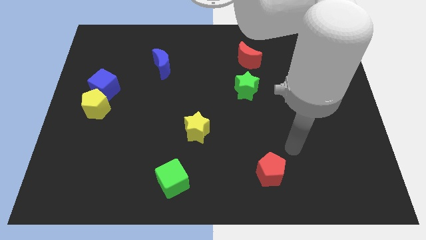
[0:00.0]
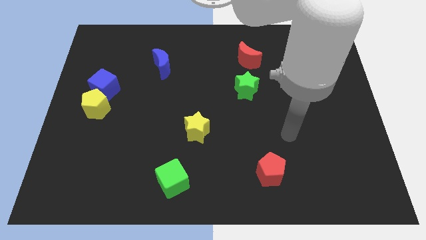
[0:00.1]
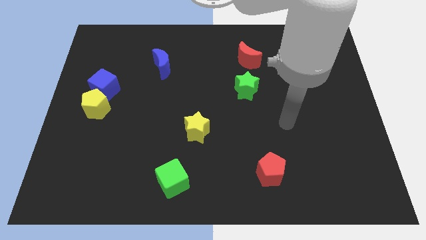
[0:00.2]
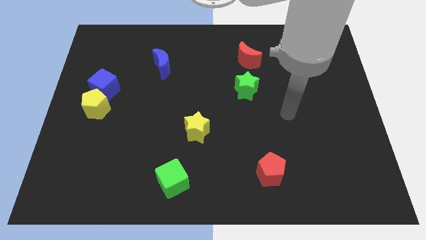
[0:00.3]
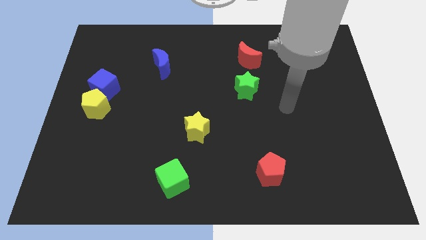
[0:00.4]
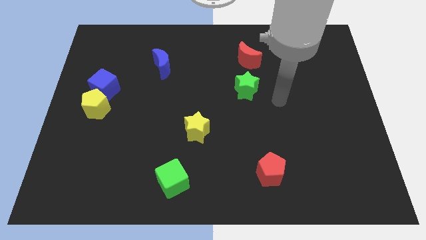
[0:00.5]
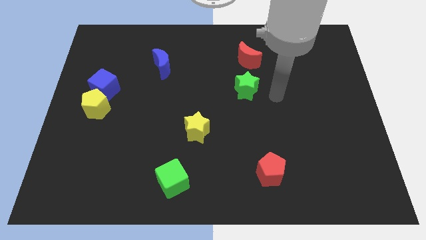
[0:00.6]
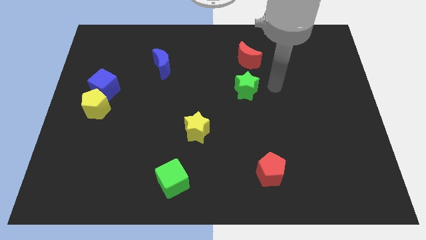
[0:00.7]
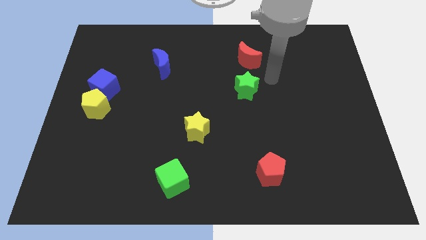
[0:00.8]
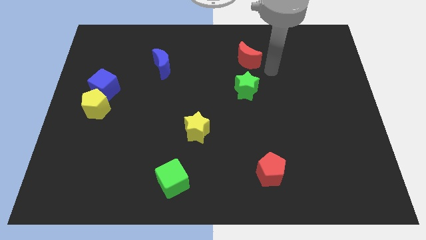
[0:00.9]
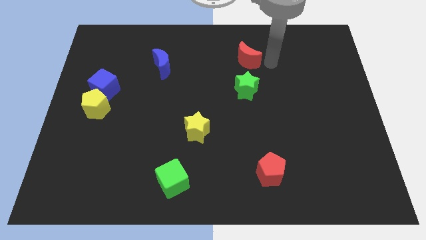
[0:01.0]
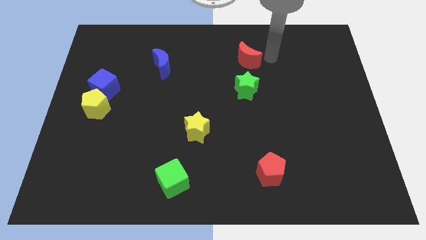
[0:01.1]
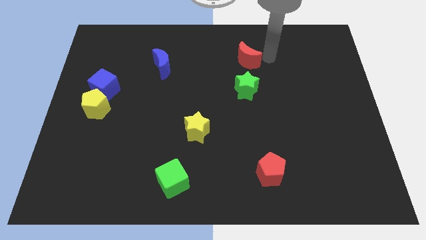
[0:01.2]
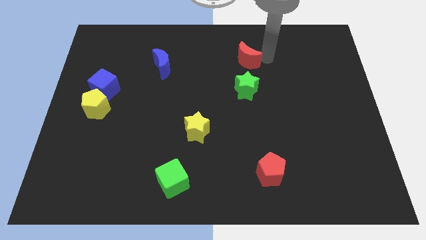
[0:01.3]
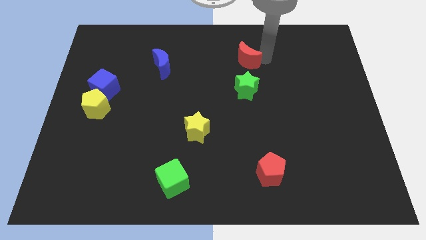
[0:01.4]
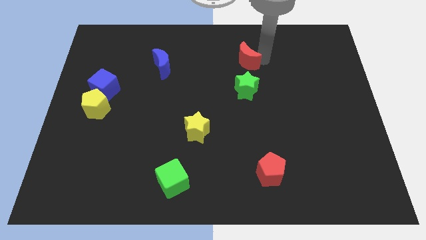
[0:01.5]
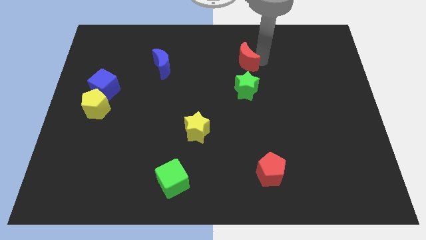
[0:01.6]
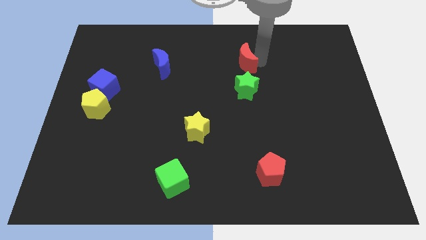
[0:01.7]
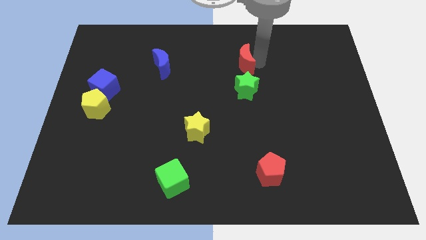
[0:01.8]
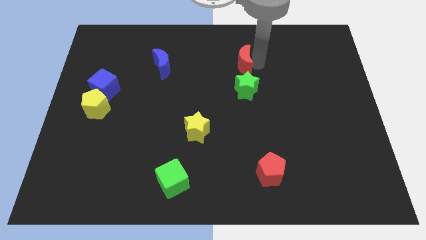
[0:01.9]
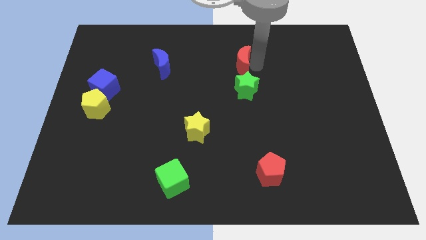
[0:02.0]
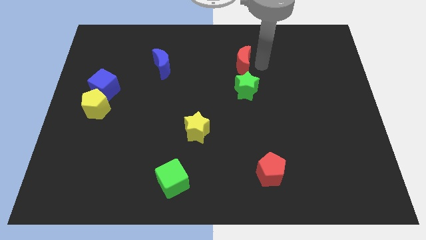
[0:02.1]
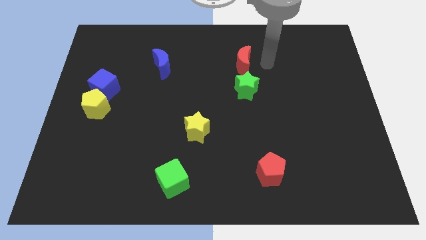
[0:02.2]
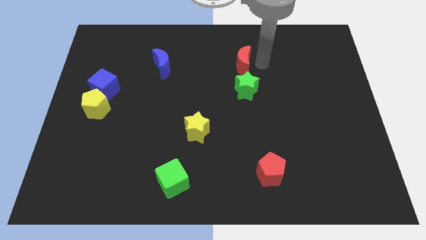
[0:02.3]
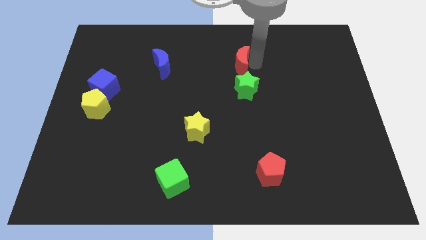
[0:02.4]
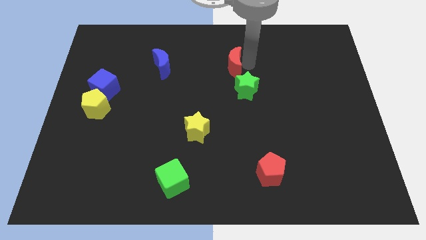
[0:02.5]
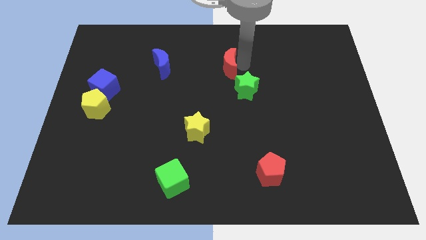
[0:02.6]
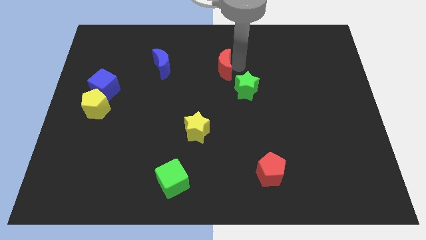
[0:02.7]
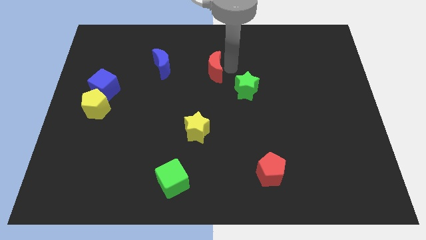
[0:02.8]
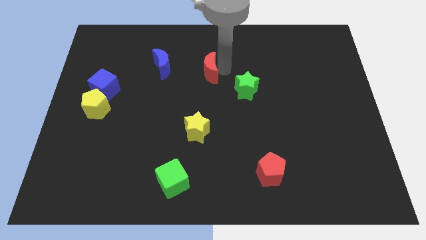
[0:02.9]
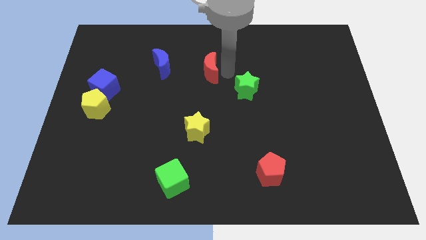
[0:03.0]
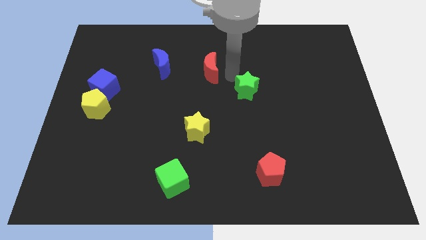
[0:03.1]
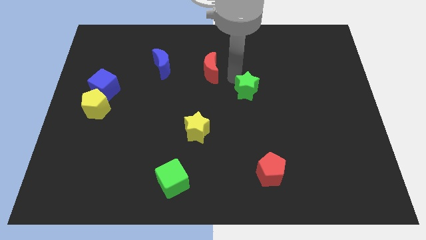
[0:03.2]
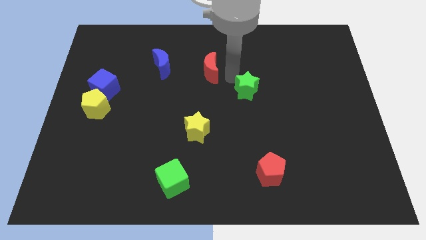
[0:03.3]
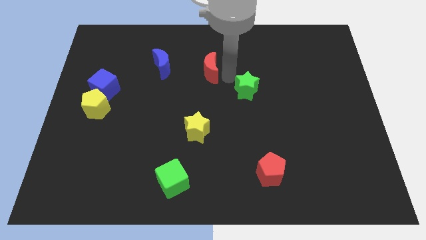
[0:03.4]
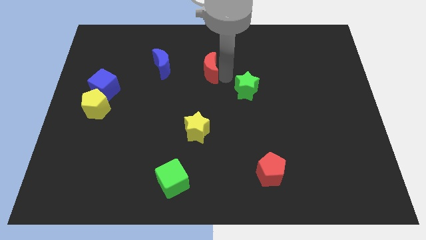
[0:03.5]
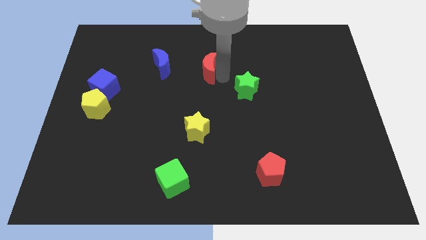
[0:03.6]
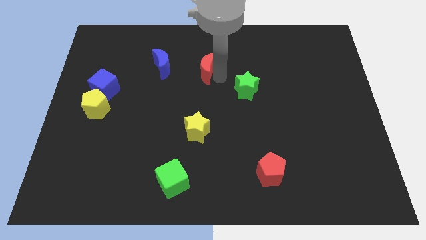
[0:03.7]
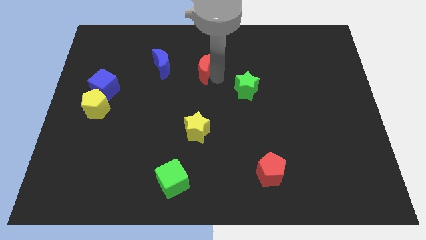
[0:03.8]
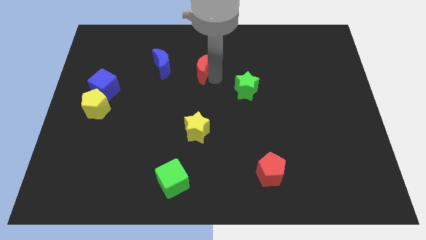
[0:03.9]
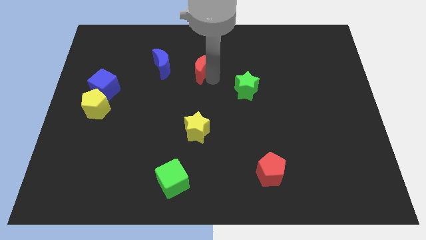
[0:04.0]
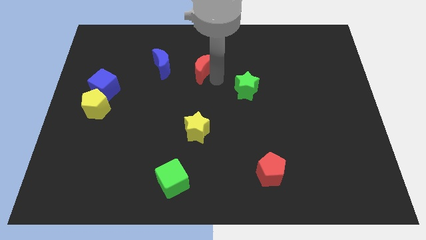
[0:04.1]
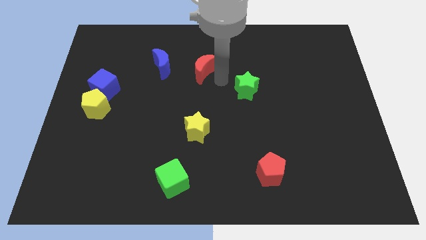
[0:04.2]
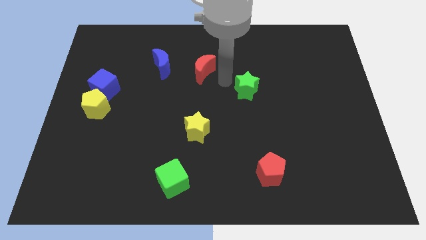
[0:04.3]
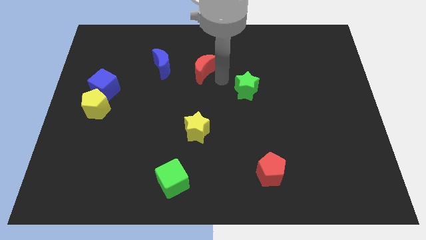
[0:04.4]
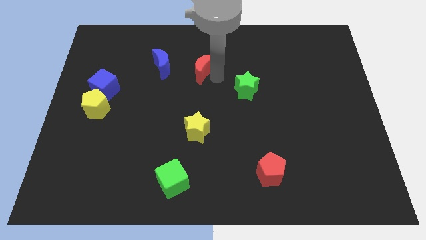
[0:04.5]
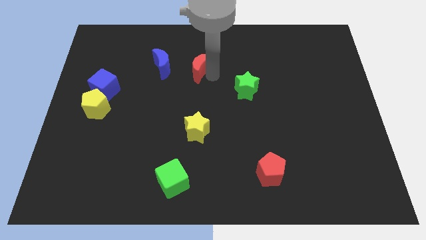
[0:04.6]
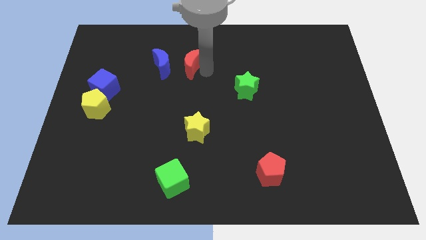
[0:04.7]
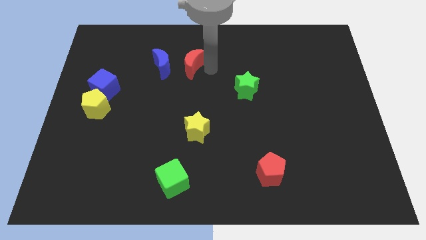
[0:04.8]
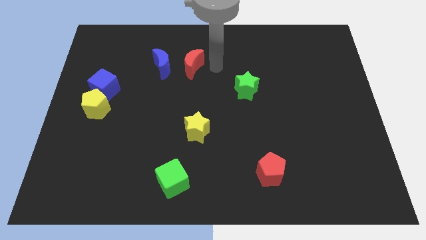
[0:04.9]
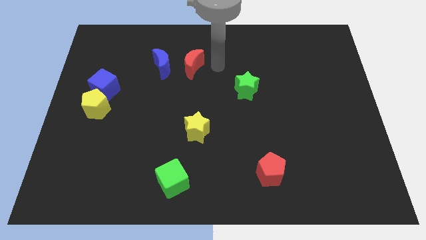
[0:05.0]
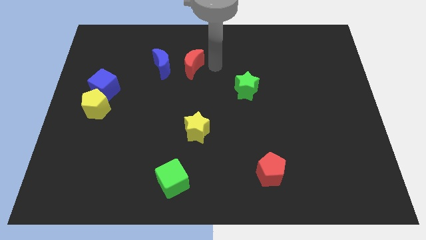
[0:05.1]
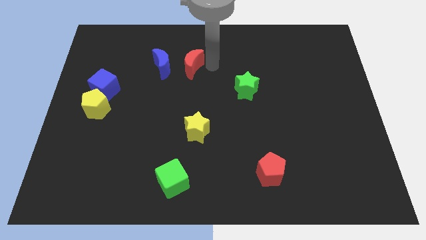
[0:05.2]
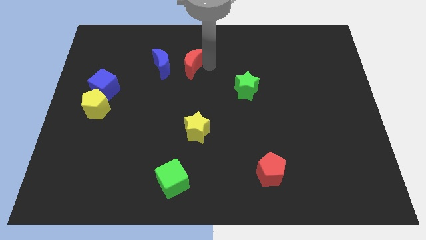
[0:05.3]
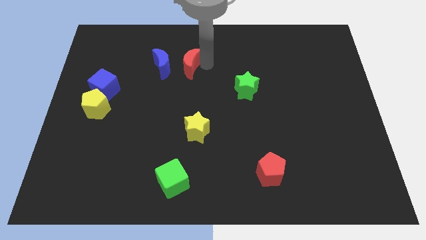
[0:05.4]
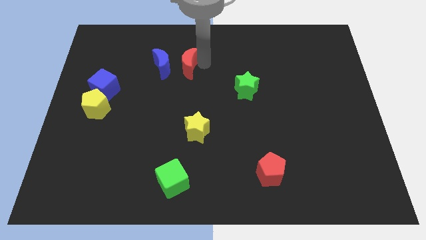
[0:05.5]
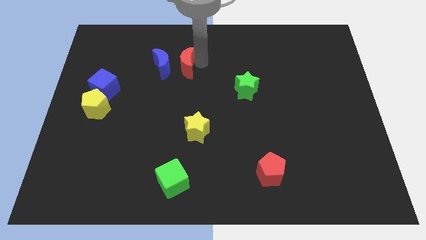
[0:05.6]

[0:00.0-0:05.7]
slide the red moon towards the blue moon

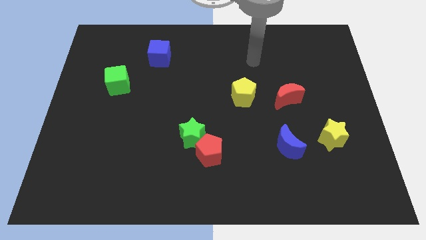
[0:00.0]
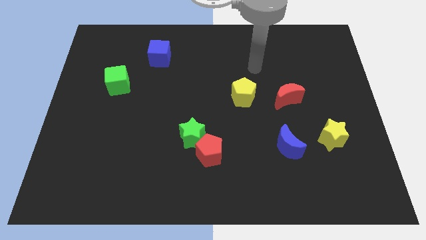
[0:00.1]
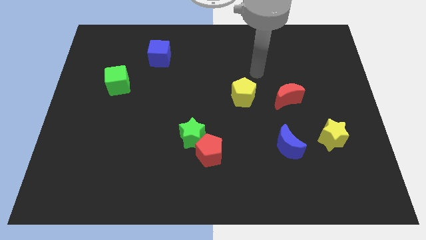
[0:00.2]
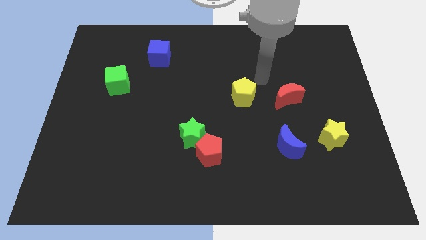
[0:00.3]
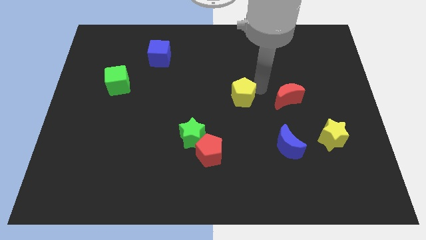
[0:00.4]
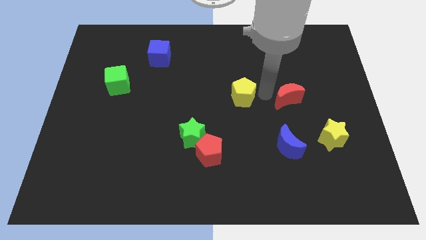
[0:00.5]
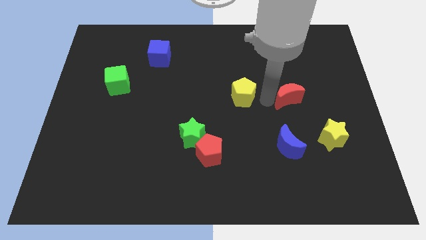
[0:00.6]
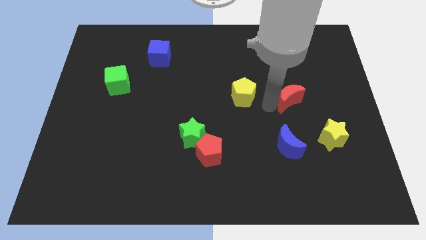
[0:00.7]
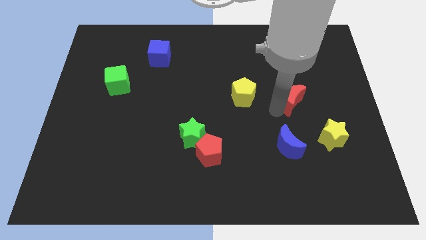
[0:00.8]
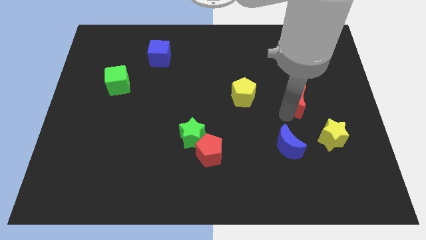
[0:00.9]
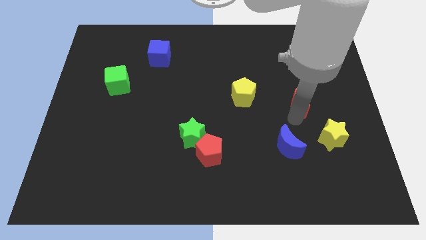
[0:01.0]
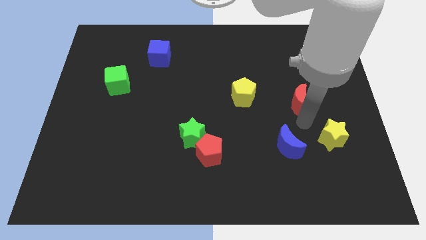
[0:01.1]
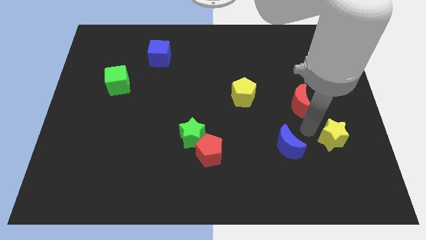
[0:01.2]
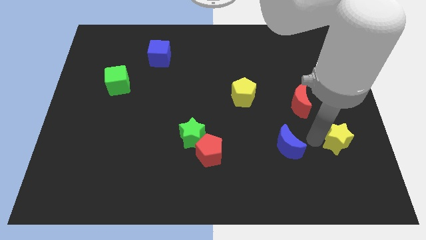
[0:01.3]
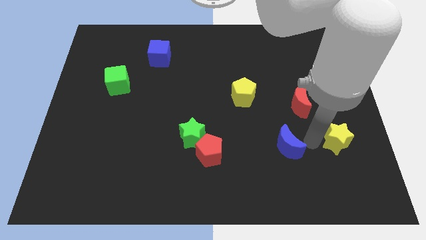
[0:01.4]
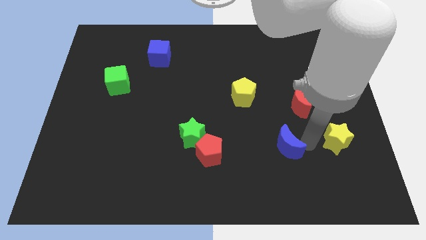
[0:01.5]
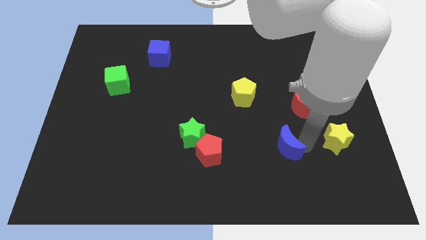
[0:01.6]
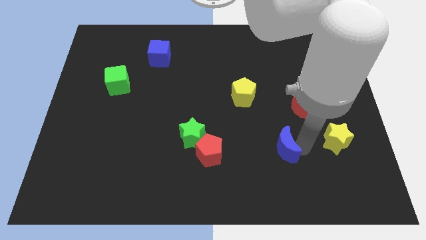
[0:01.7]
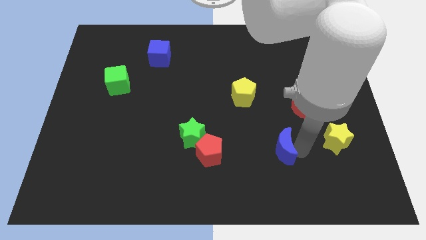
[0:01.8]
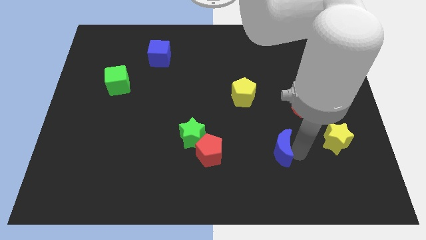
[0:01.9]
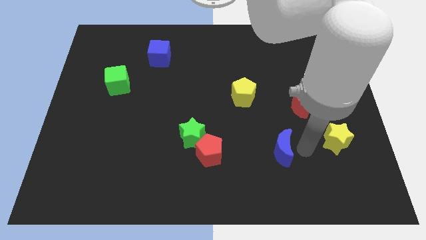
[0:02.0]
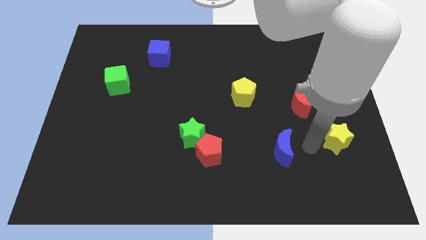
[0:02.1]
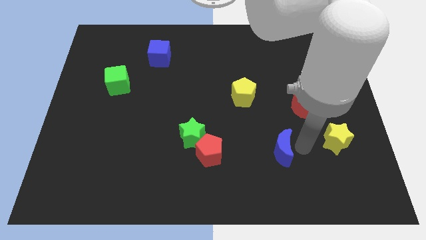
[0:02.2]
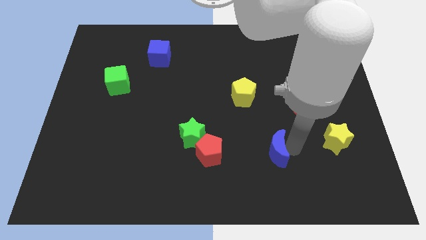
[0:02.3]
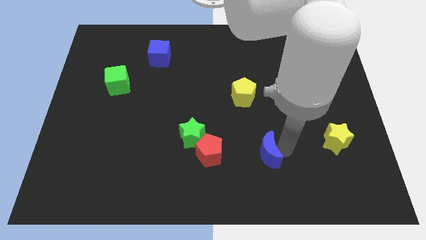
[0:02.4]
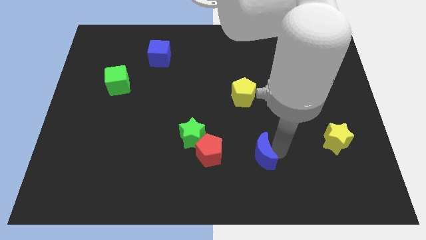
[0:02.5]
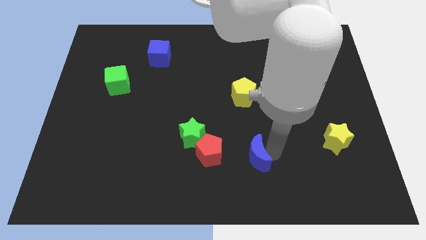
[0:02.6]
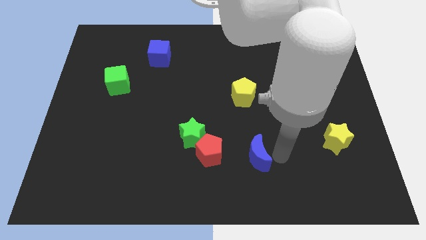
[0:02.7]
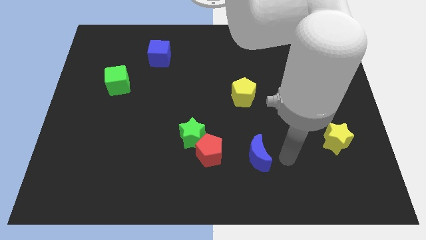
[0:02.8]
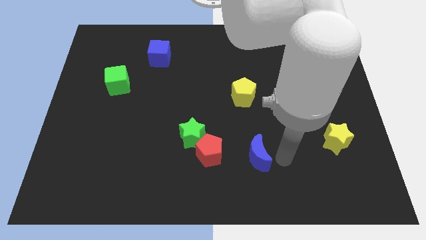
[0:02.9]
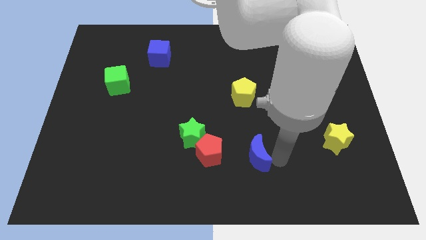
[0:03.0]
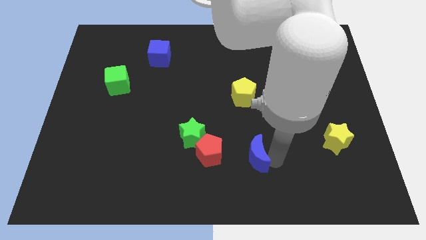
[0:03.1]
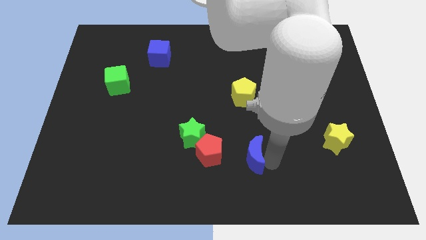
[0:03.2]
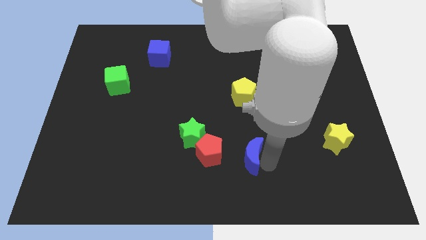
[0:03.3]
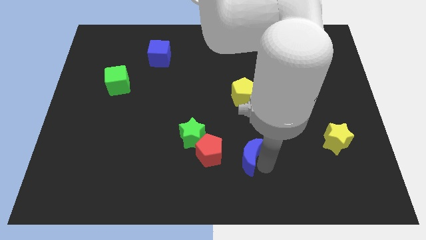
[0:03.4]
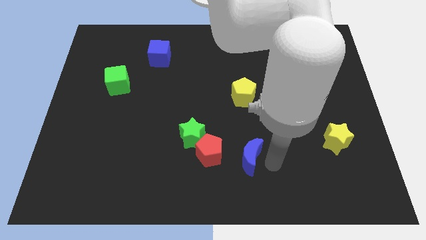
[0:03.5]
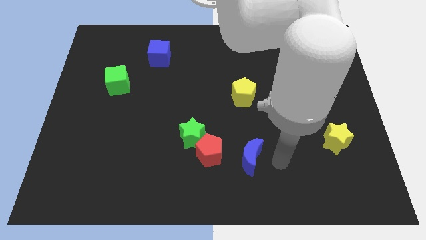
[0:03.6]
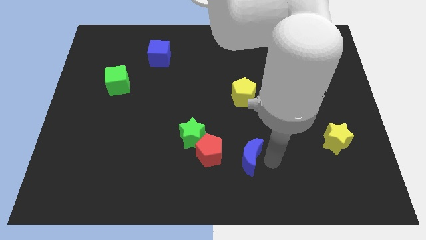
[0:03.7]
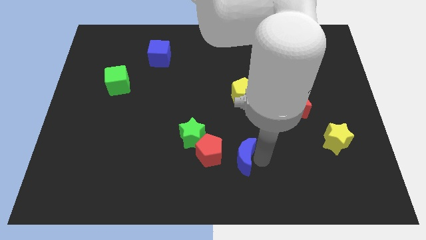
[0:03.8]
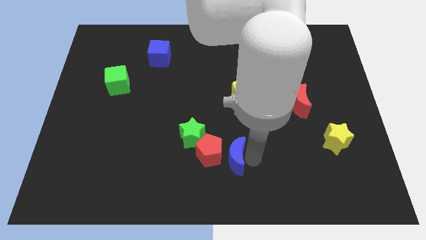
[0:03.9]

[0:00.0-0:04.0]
move the blue moon towards the red pentagon
